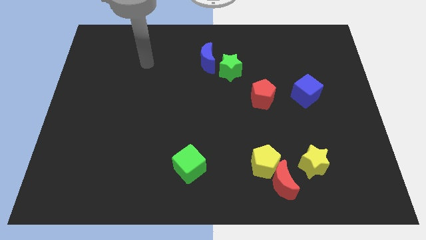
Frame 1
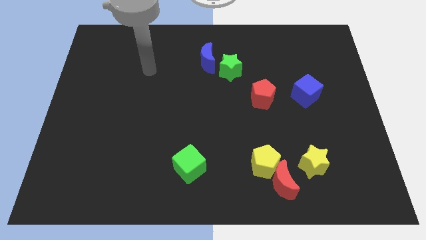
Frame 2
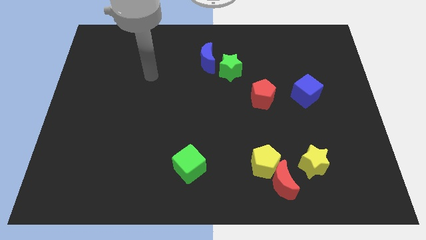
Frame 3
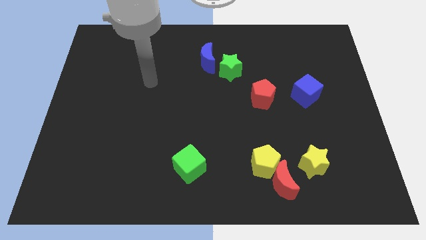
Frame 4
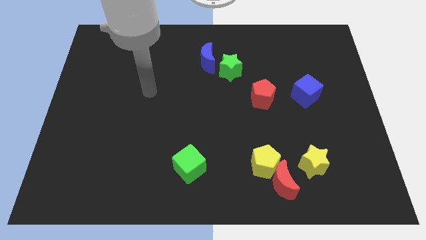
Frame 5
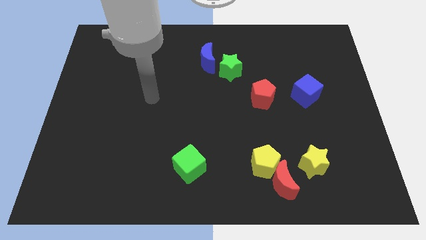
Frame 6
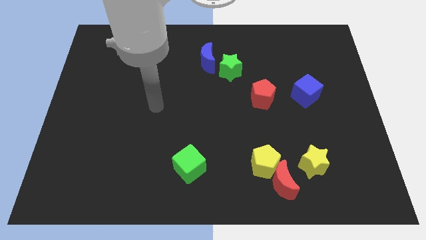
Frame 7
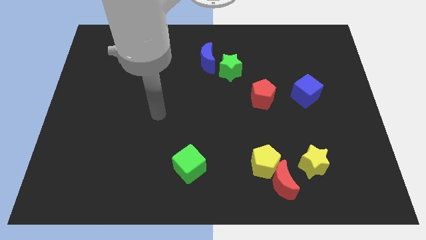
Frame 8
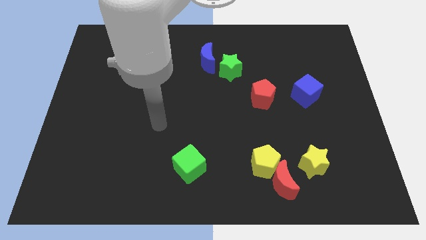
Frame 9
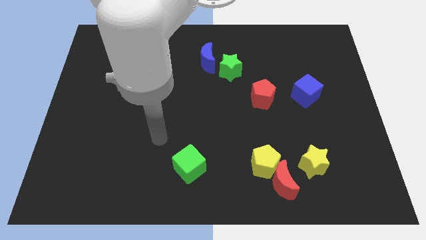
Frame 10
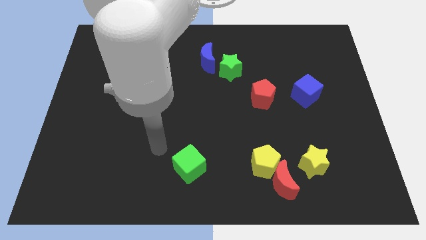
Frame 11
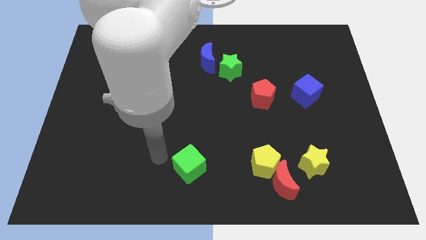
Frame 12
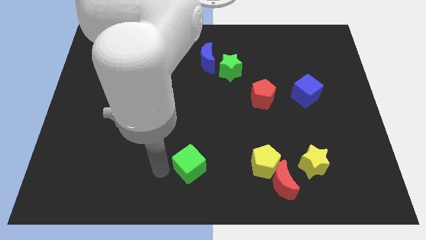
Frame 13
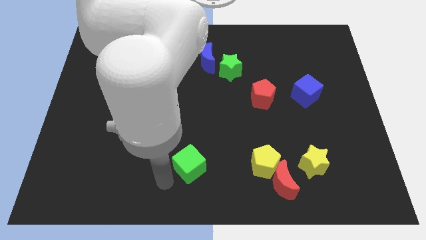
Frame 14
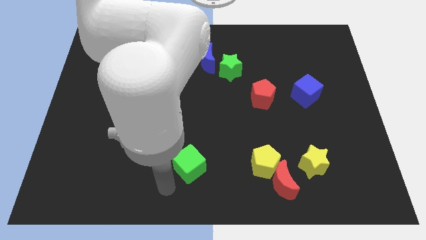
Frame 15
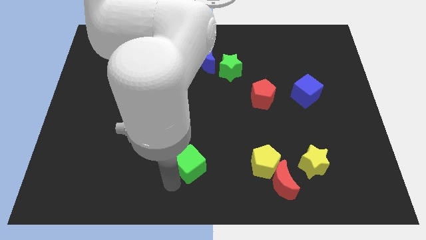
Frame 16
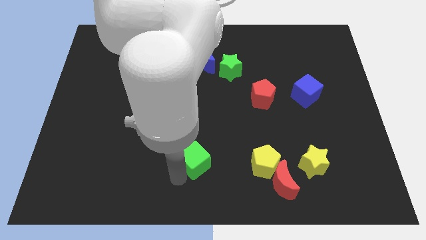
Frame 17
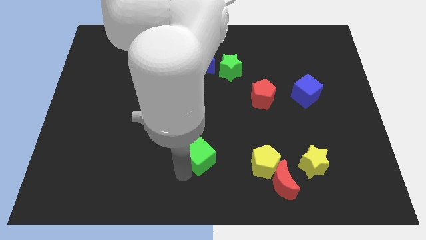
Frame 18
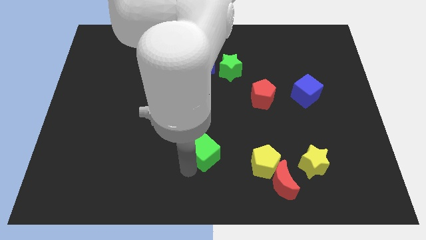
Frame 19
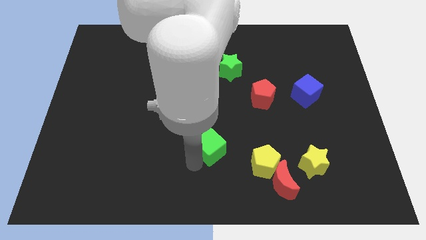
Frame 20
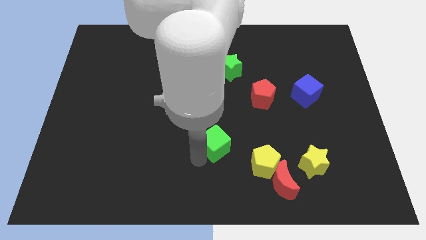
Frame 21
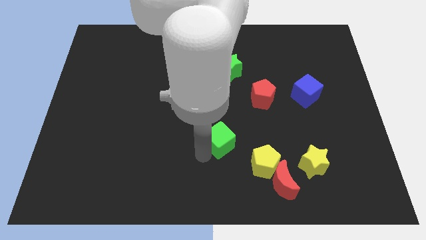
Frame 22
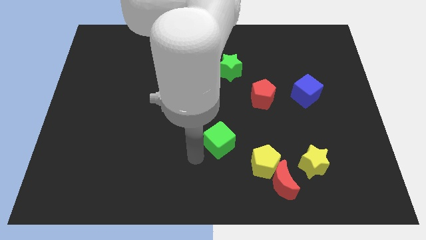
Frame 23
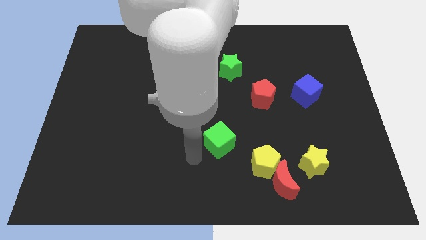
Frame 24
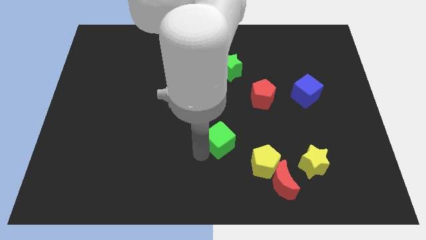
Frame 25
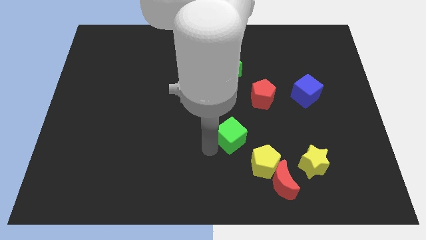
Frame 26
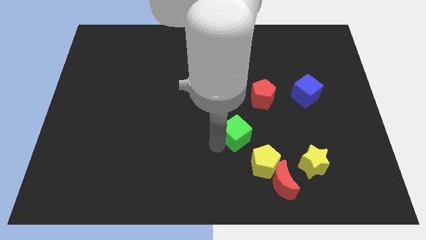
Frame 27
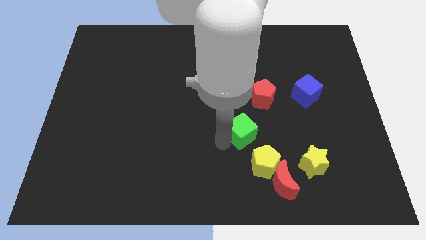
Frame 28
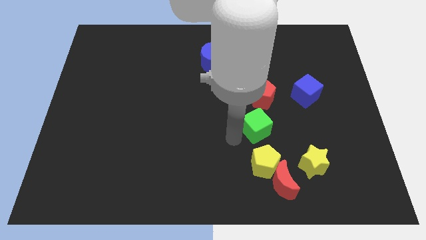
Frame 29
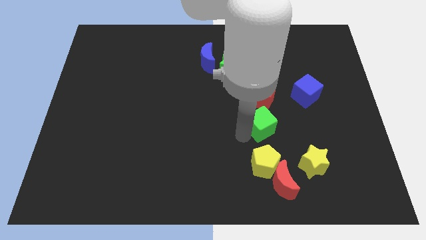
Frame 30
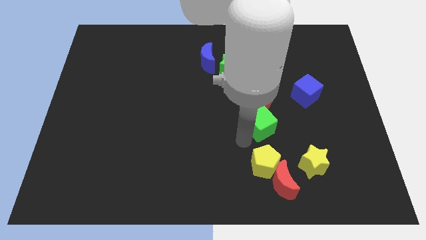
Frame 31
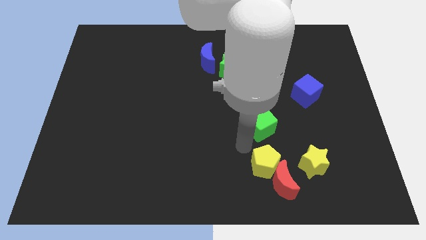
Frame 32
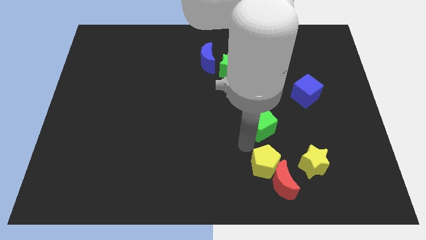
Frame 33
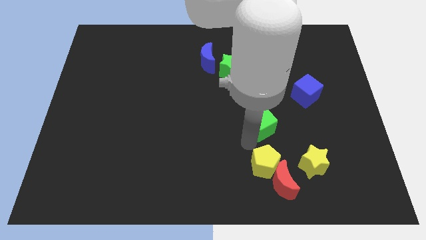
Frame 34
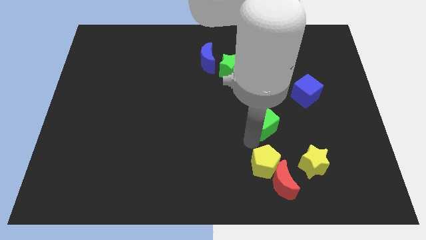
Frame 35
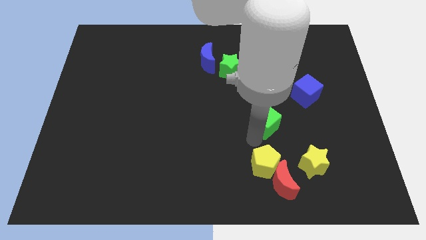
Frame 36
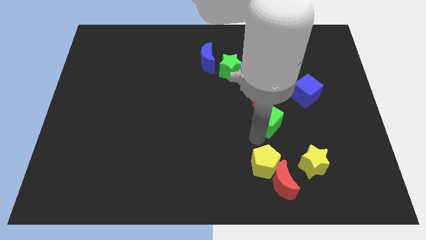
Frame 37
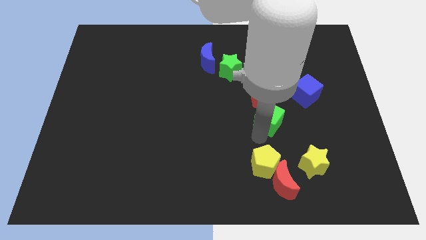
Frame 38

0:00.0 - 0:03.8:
push the green cube upwards and right diagonally

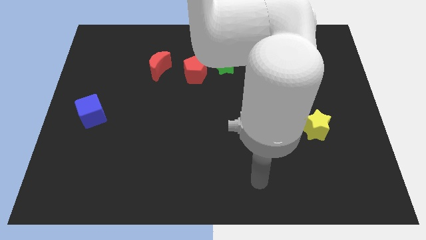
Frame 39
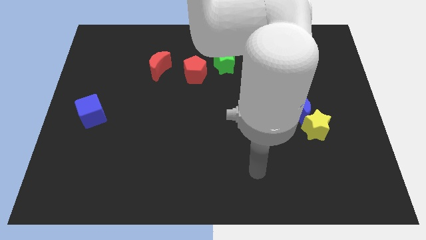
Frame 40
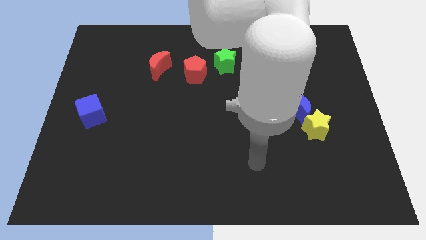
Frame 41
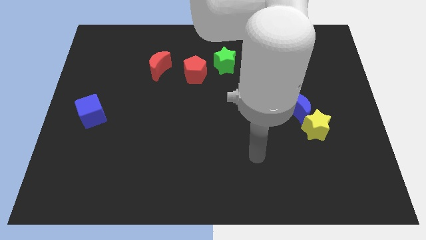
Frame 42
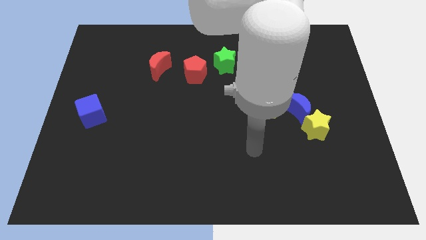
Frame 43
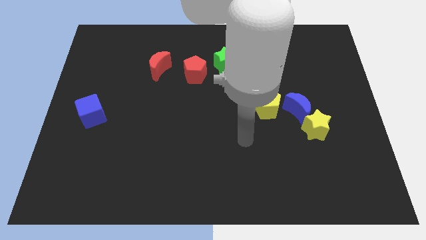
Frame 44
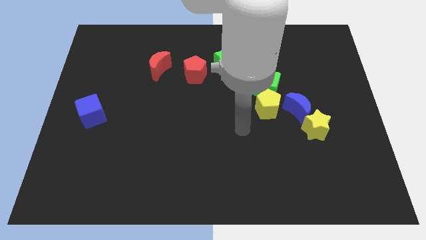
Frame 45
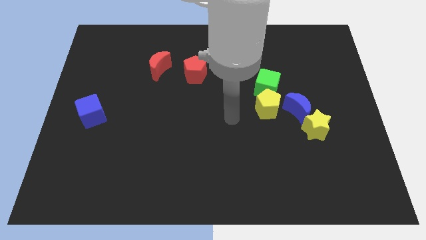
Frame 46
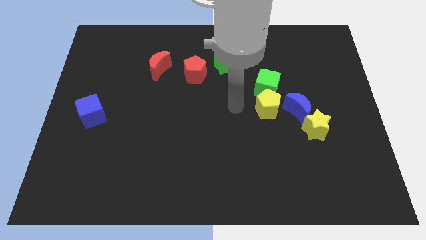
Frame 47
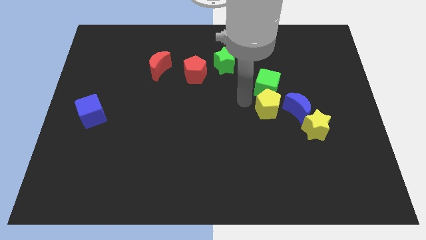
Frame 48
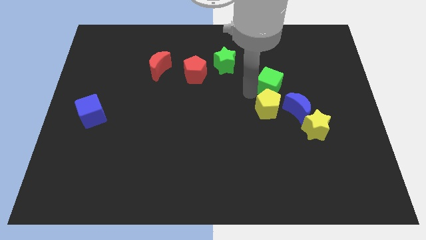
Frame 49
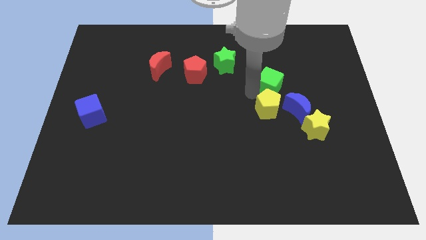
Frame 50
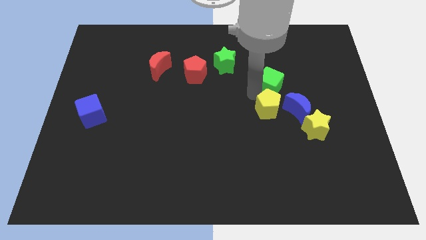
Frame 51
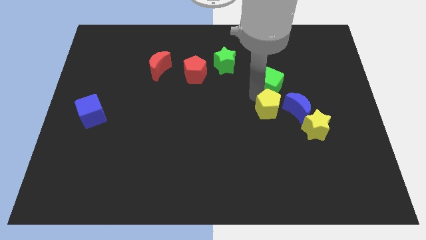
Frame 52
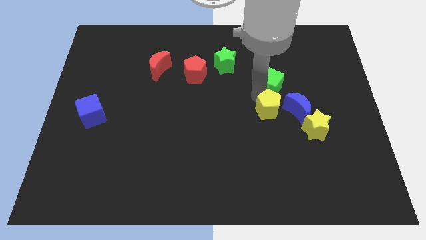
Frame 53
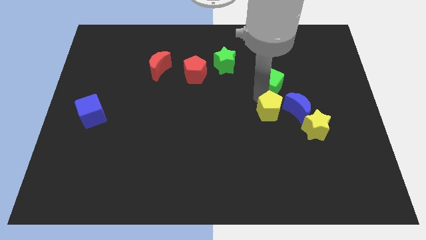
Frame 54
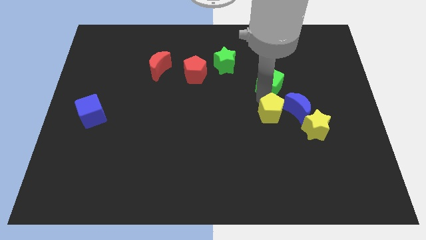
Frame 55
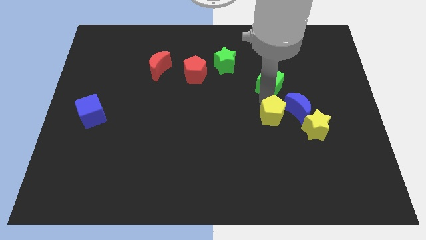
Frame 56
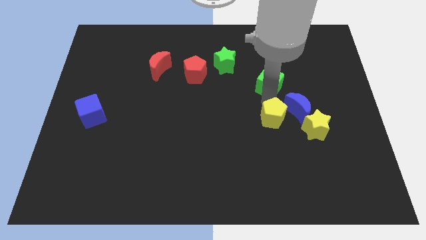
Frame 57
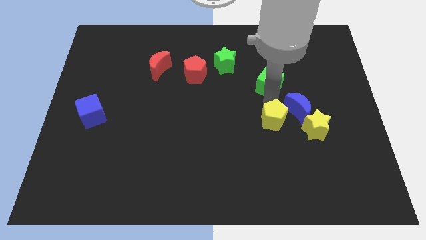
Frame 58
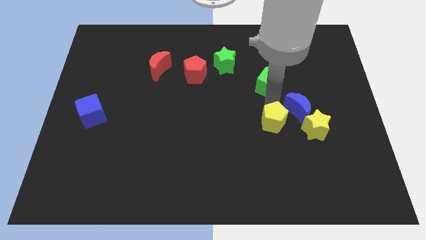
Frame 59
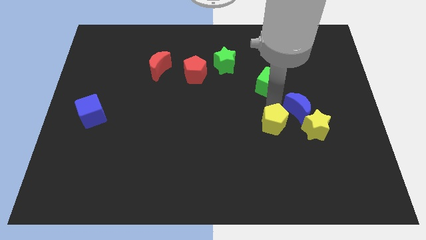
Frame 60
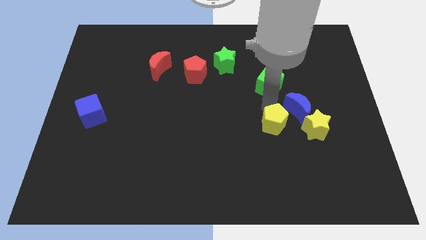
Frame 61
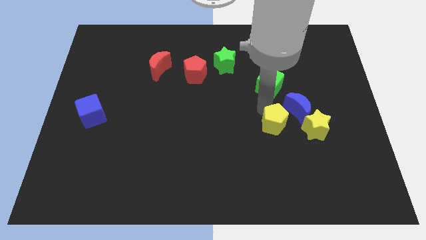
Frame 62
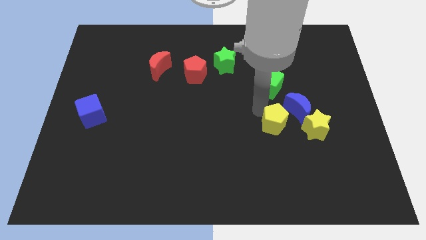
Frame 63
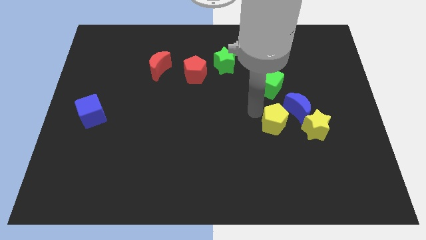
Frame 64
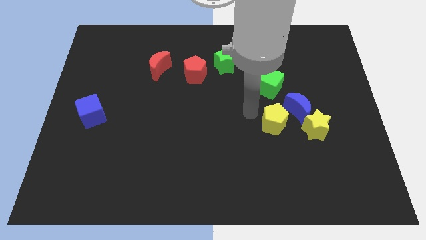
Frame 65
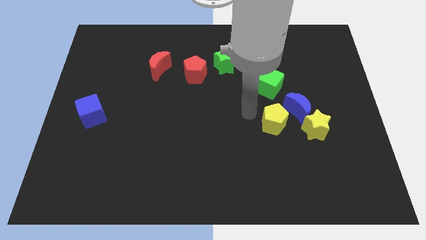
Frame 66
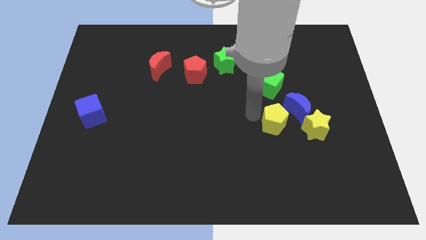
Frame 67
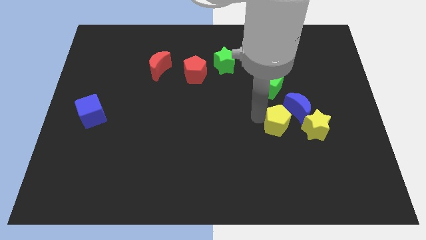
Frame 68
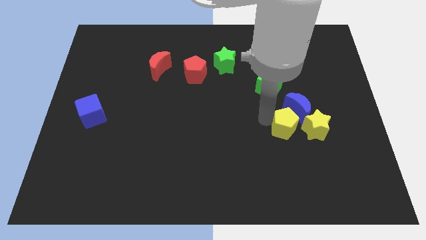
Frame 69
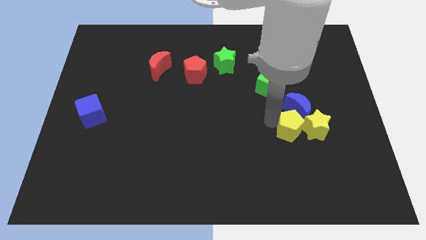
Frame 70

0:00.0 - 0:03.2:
slightly slide the yellow pentagon downwards and to the right

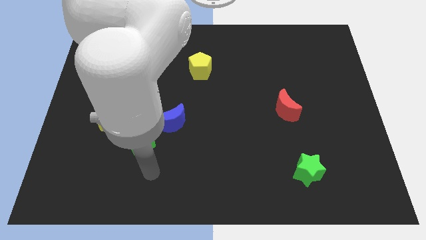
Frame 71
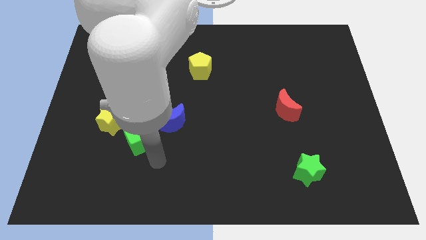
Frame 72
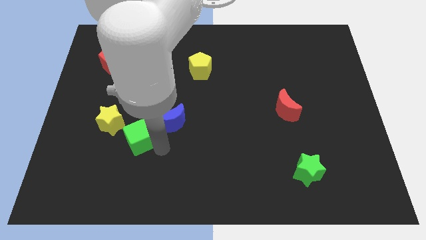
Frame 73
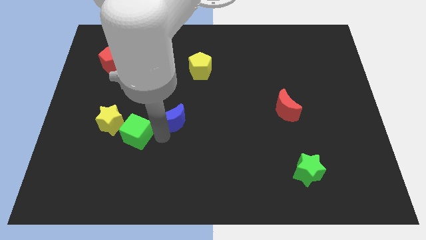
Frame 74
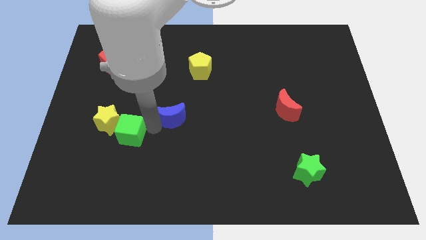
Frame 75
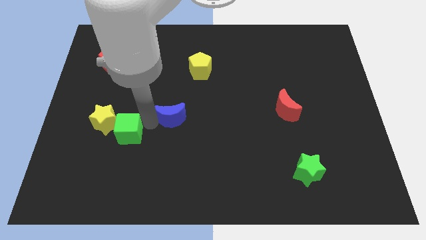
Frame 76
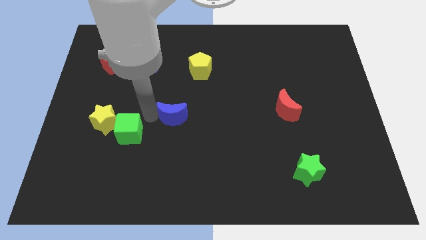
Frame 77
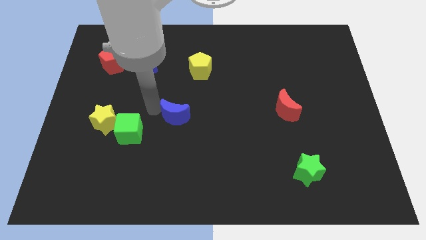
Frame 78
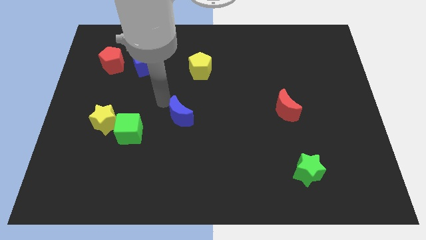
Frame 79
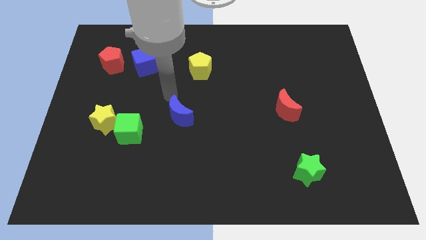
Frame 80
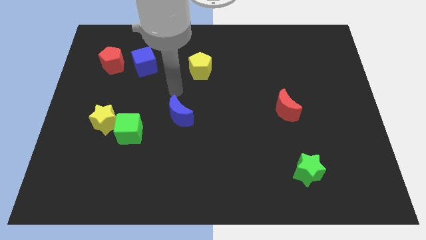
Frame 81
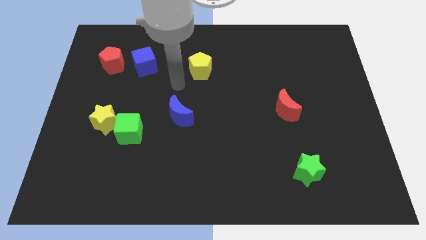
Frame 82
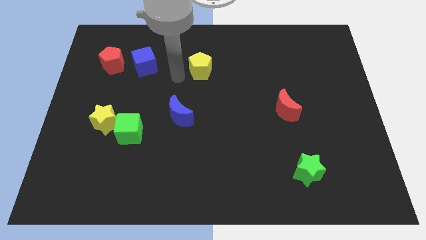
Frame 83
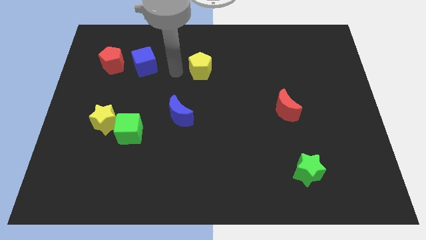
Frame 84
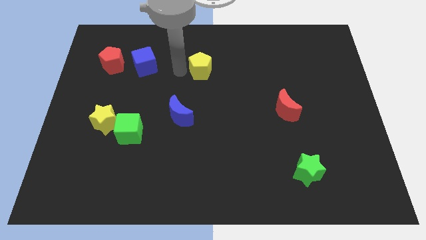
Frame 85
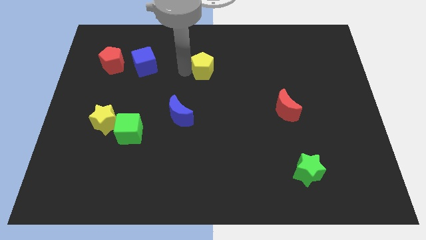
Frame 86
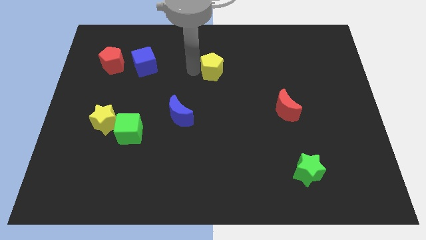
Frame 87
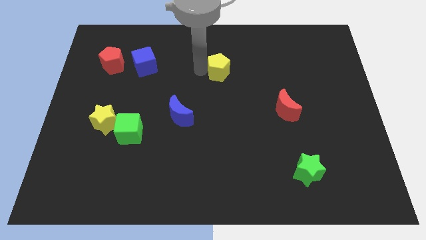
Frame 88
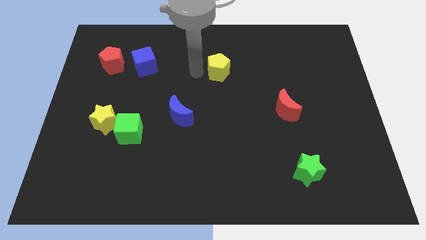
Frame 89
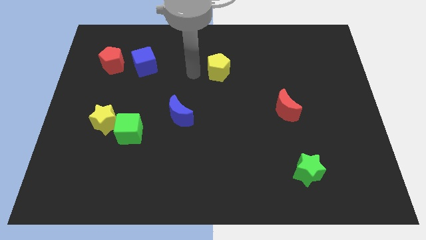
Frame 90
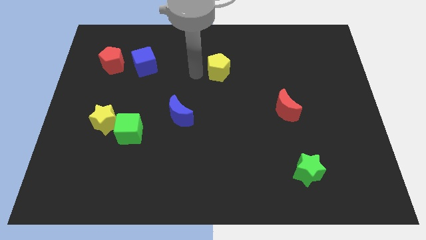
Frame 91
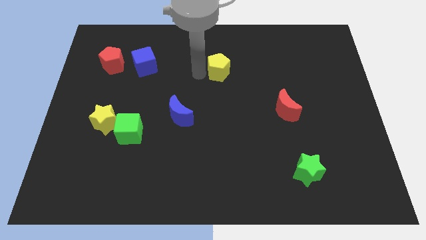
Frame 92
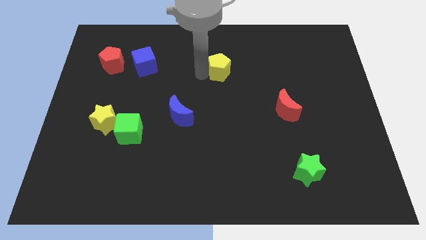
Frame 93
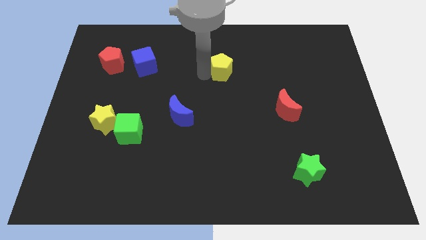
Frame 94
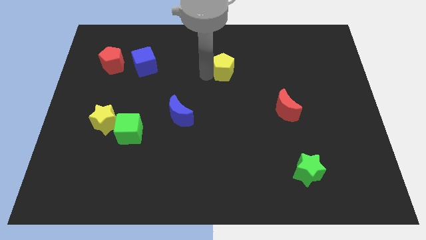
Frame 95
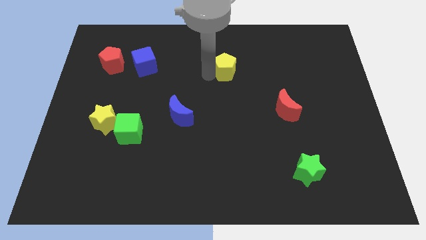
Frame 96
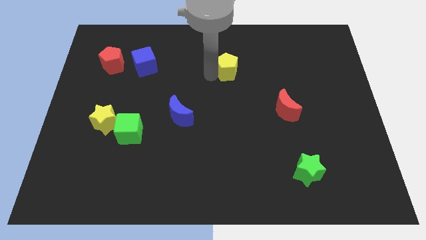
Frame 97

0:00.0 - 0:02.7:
push the yellow pentagon a bit right
